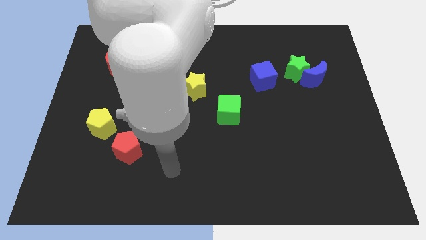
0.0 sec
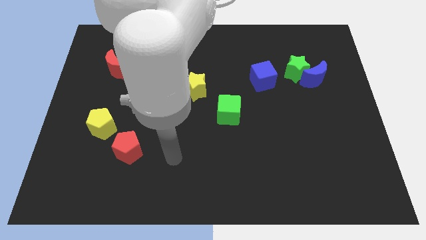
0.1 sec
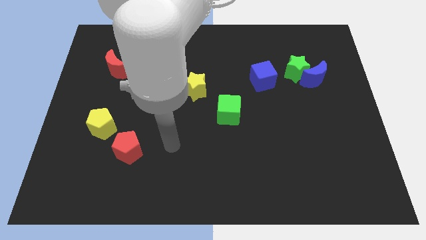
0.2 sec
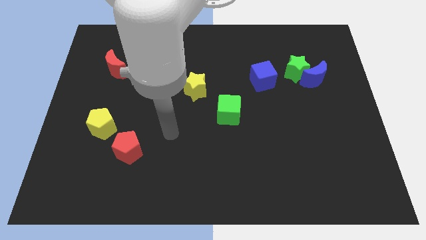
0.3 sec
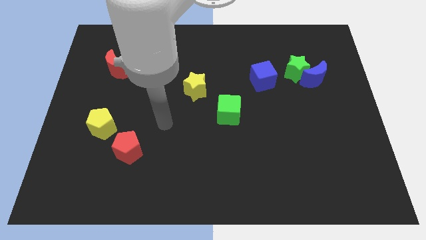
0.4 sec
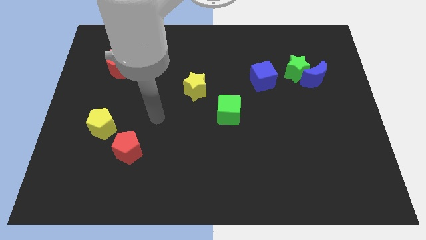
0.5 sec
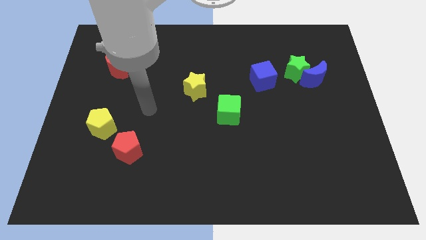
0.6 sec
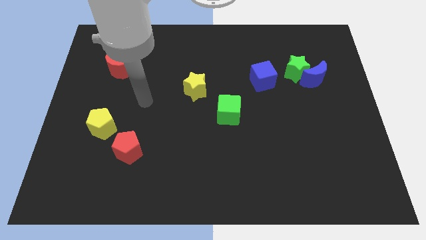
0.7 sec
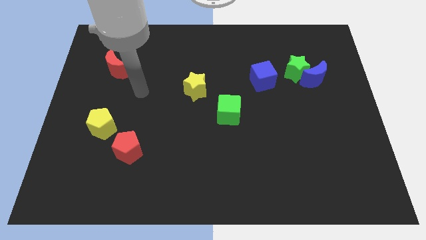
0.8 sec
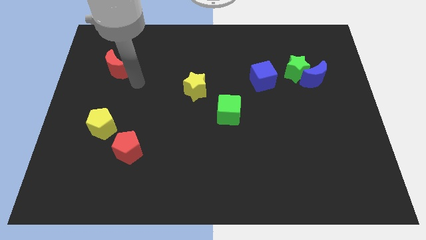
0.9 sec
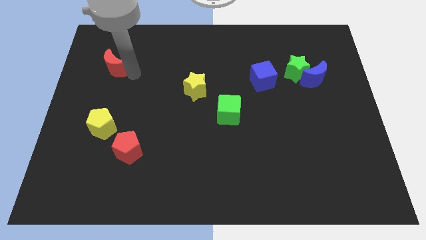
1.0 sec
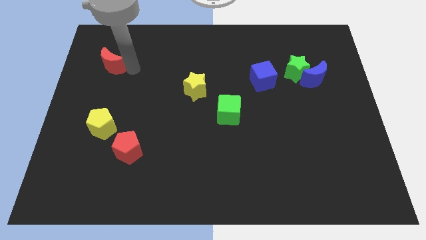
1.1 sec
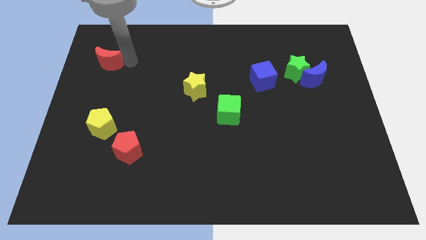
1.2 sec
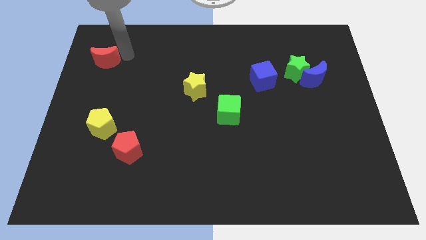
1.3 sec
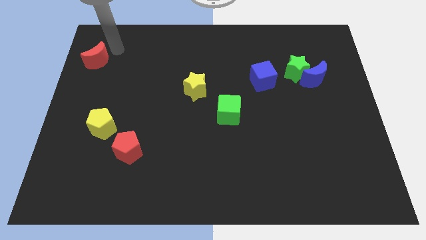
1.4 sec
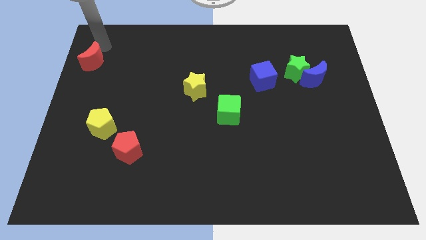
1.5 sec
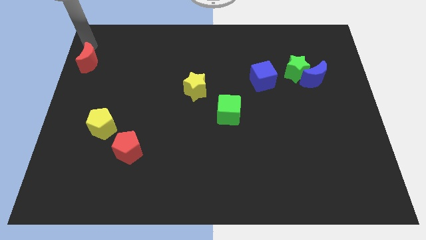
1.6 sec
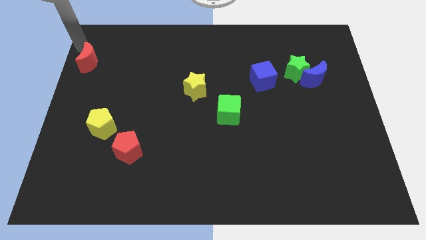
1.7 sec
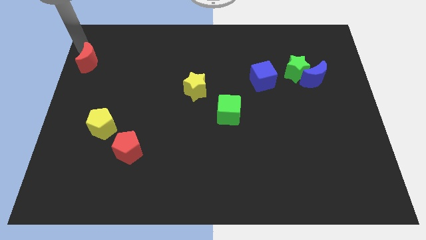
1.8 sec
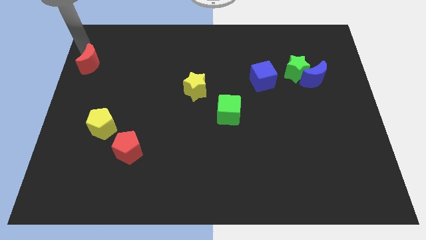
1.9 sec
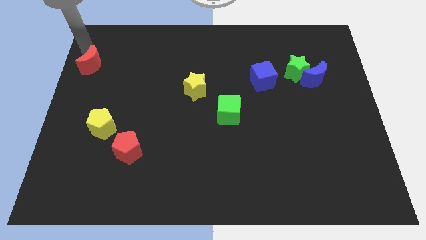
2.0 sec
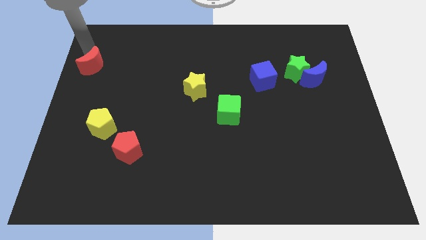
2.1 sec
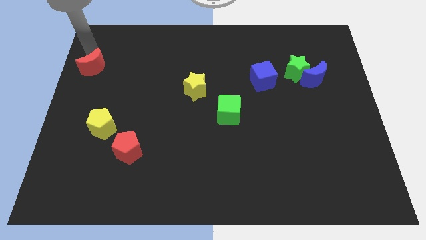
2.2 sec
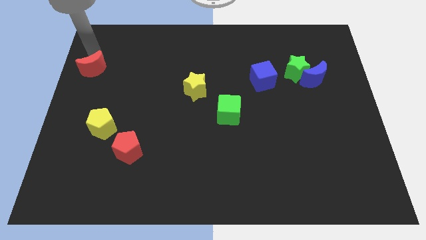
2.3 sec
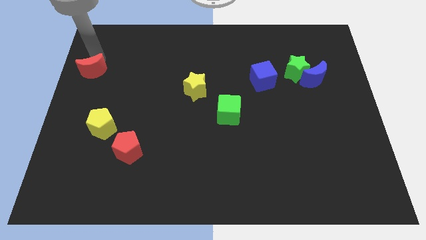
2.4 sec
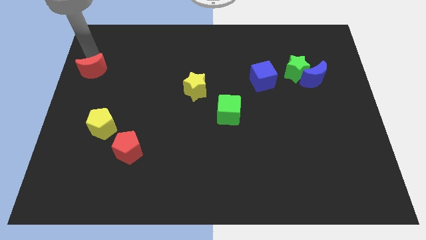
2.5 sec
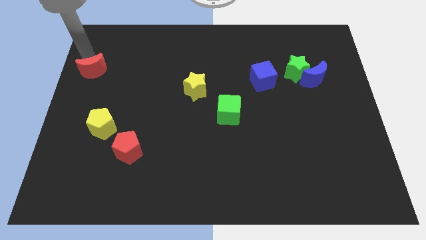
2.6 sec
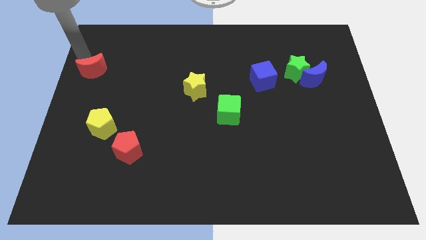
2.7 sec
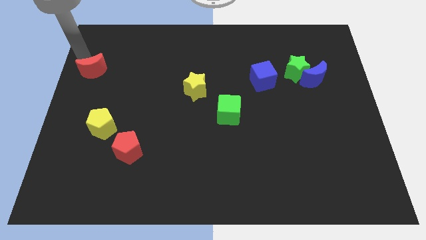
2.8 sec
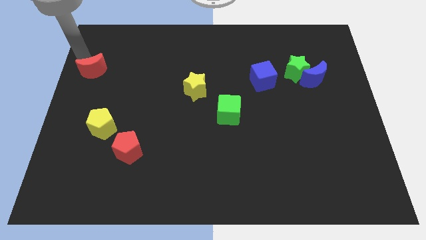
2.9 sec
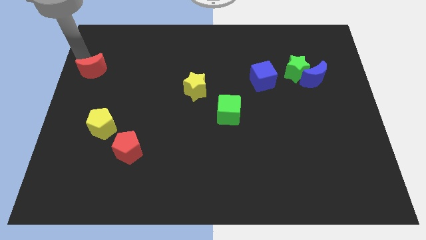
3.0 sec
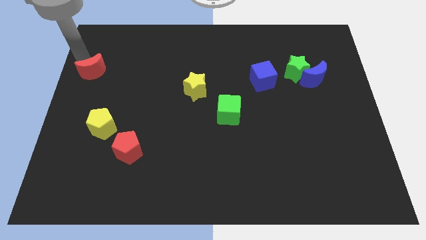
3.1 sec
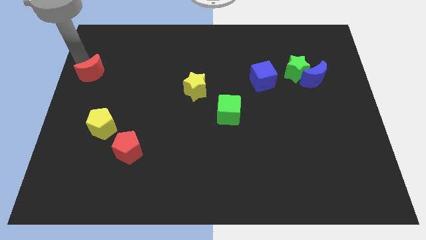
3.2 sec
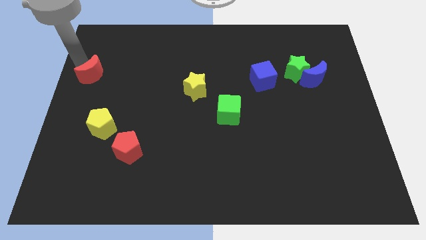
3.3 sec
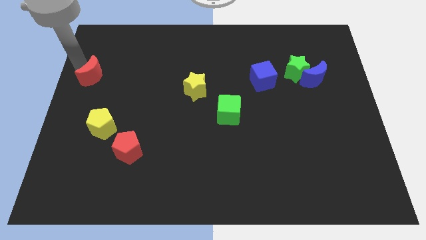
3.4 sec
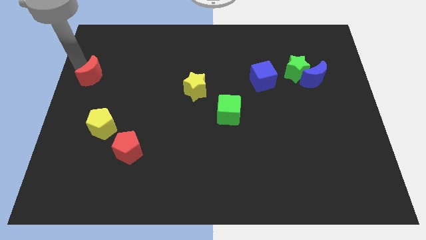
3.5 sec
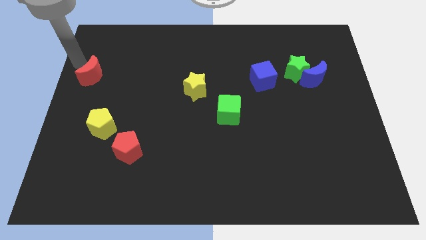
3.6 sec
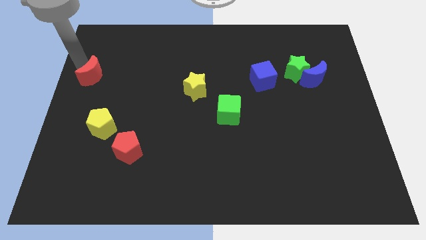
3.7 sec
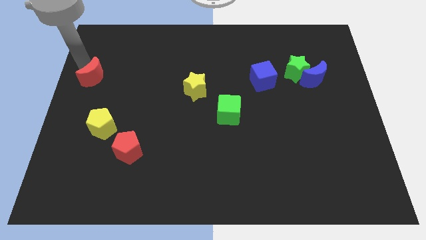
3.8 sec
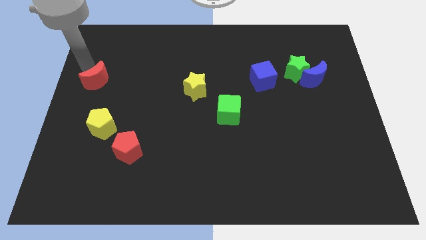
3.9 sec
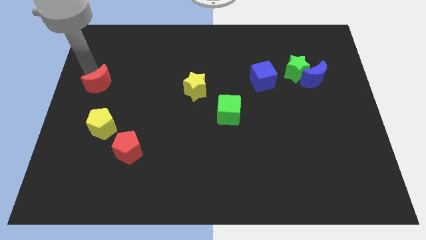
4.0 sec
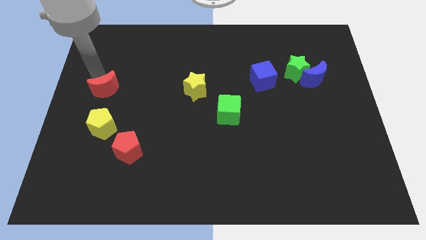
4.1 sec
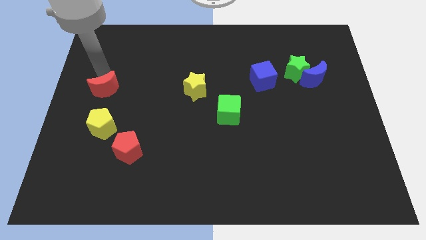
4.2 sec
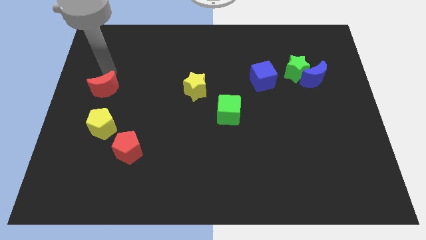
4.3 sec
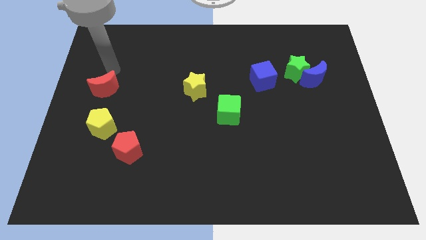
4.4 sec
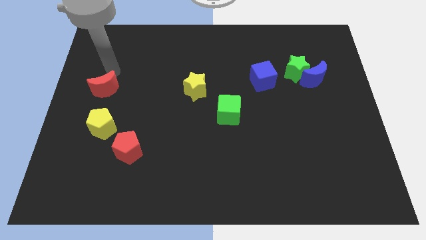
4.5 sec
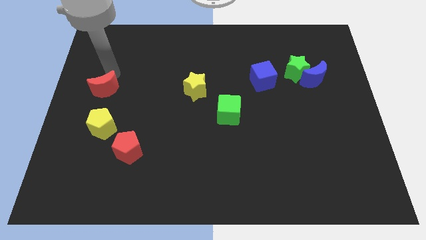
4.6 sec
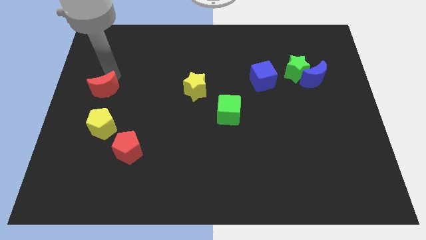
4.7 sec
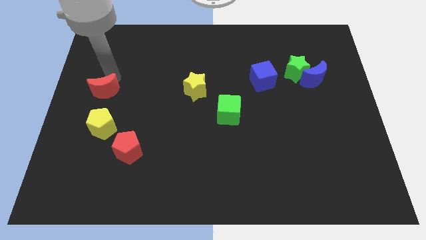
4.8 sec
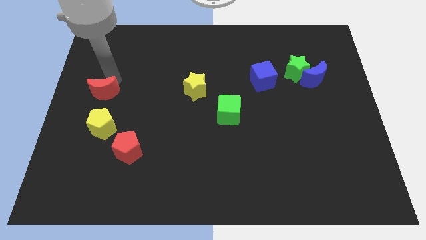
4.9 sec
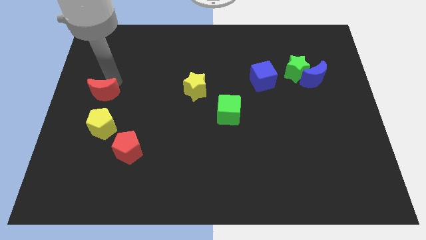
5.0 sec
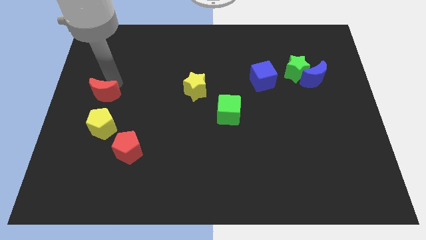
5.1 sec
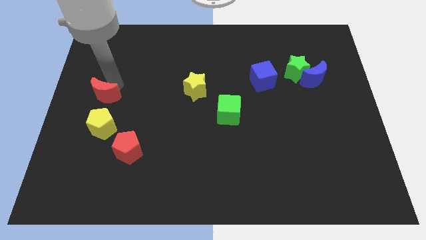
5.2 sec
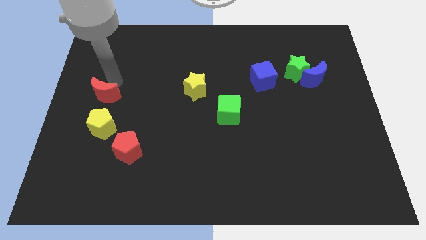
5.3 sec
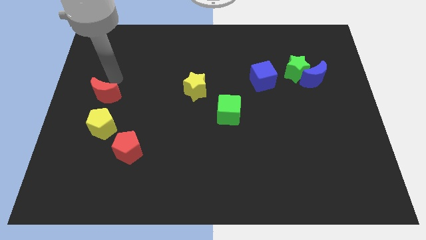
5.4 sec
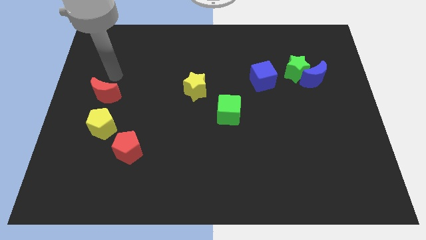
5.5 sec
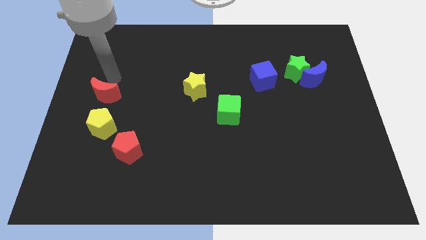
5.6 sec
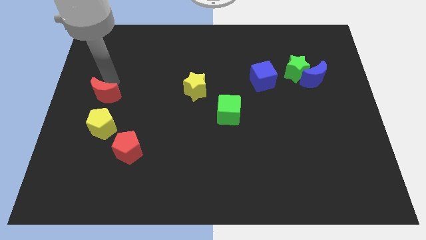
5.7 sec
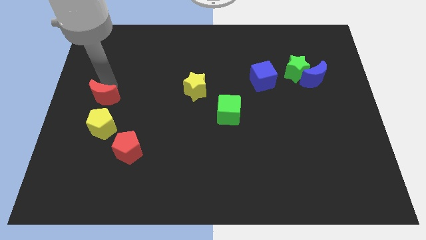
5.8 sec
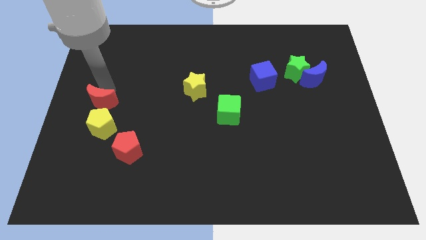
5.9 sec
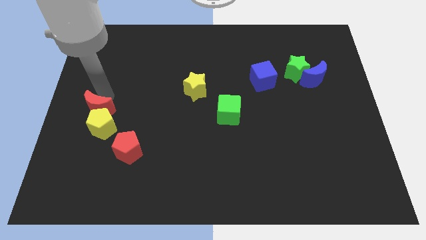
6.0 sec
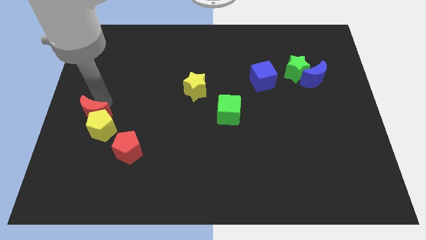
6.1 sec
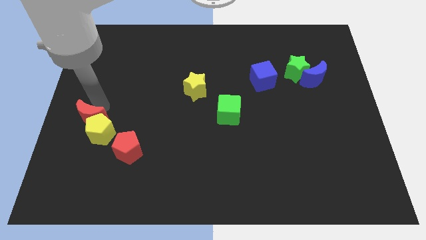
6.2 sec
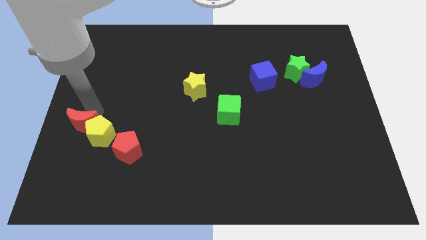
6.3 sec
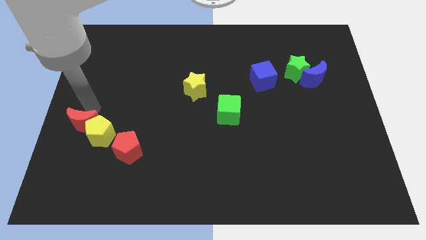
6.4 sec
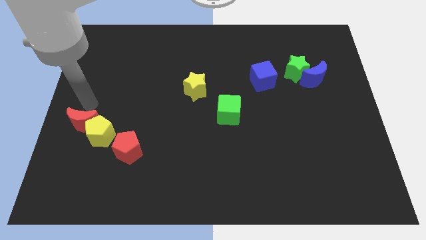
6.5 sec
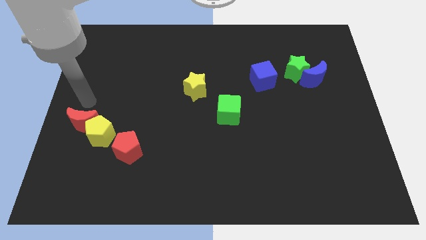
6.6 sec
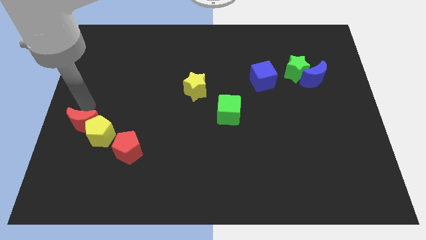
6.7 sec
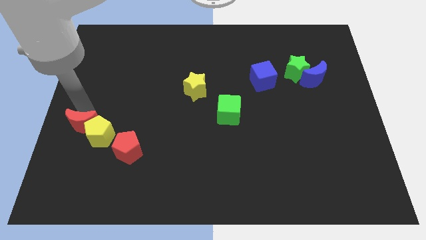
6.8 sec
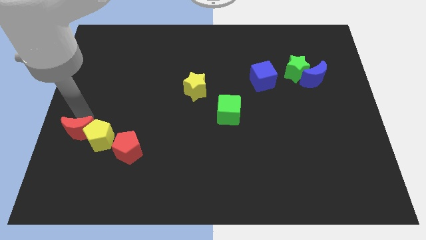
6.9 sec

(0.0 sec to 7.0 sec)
push the red moon to the left side of the red pentagon
